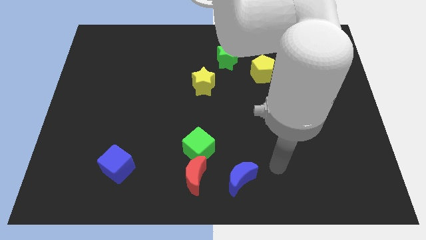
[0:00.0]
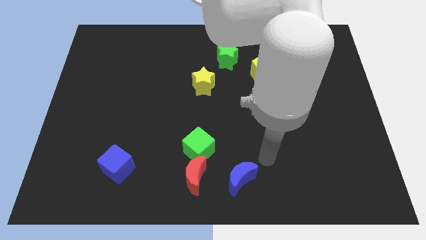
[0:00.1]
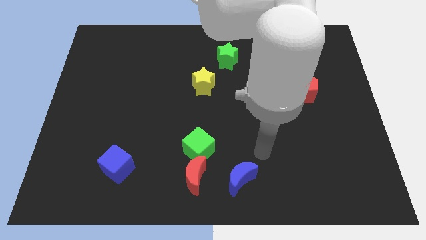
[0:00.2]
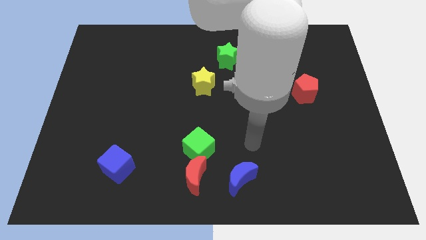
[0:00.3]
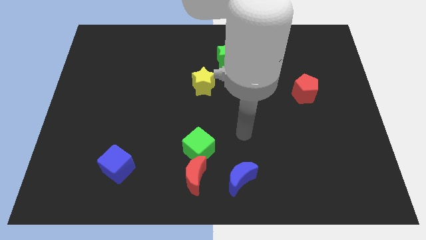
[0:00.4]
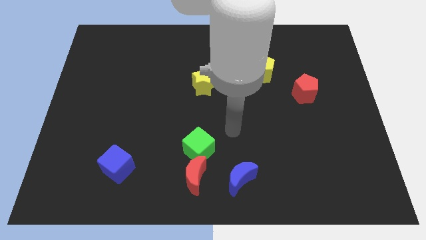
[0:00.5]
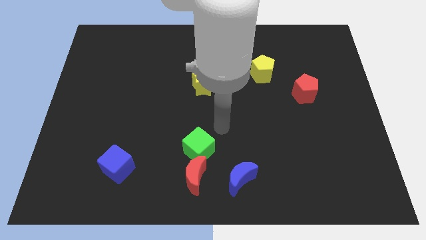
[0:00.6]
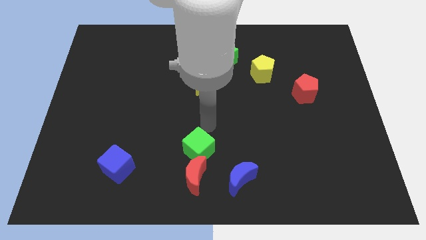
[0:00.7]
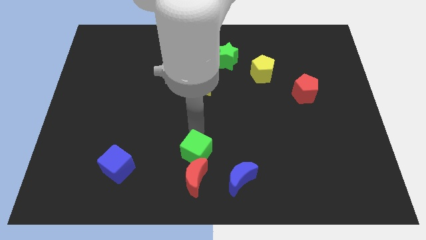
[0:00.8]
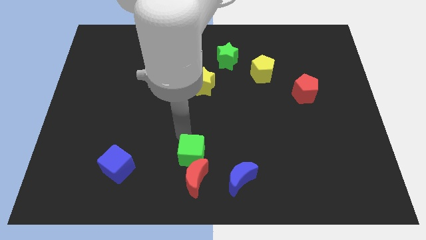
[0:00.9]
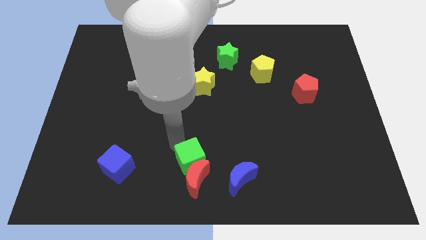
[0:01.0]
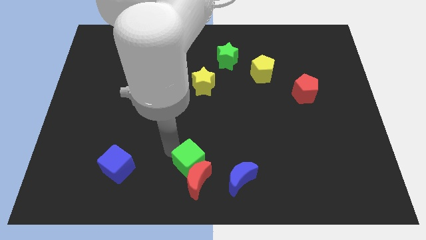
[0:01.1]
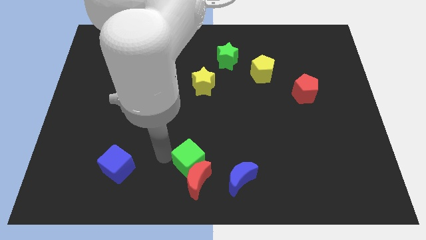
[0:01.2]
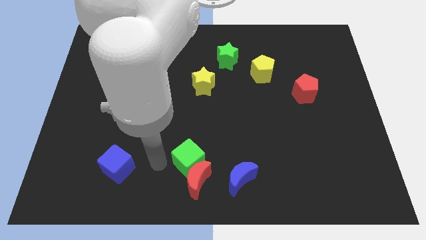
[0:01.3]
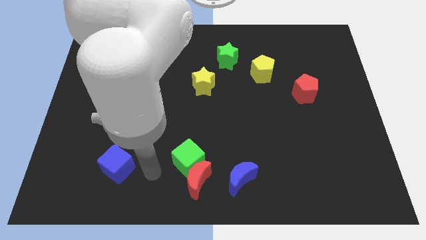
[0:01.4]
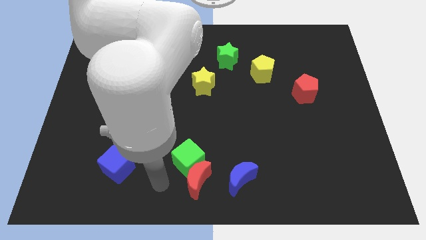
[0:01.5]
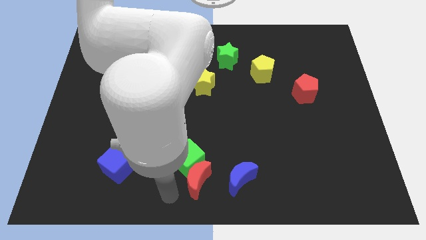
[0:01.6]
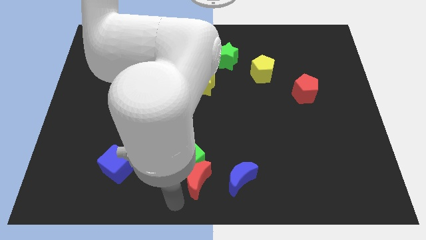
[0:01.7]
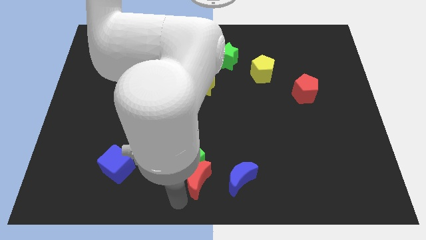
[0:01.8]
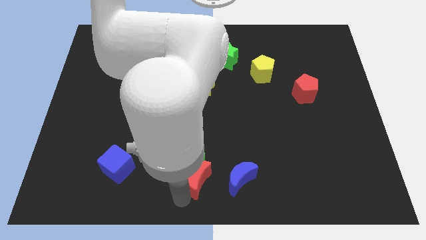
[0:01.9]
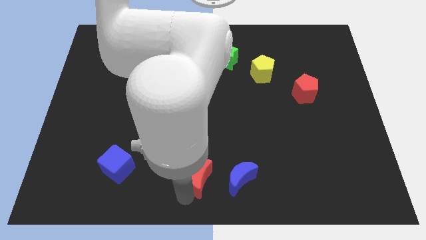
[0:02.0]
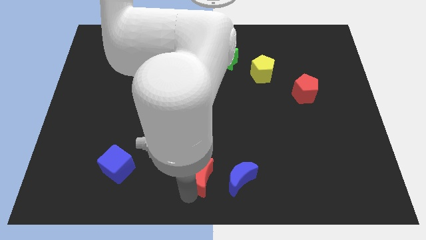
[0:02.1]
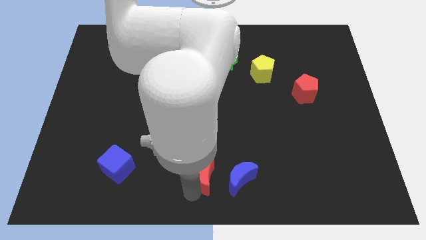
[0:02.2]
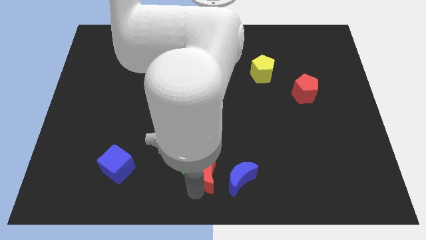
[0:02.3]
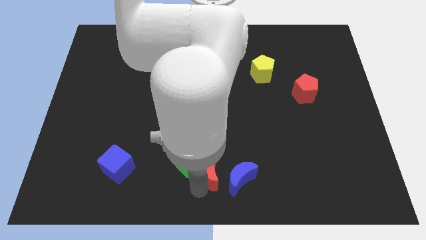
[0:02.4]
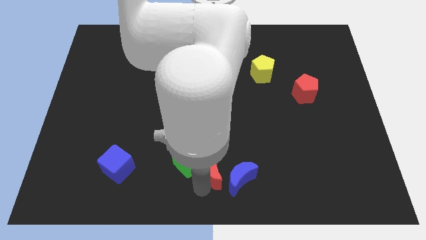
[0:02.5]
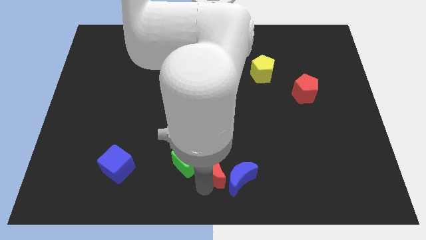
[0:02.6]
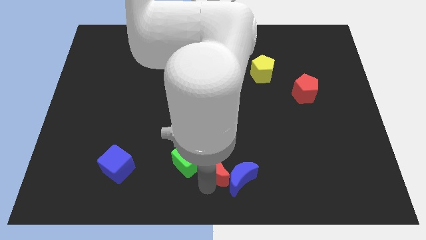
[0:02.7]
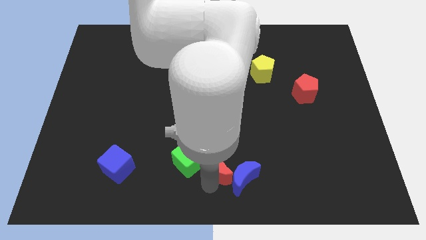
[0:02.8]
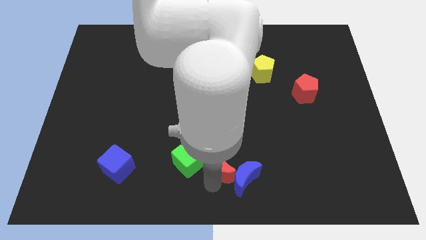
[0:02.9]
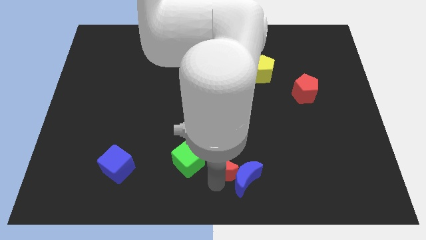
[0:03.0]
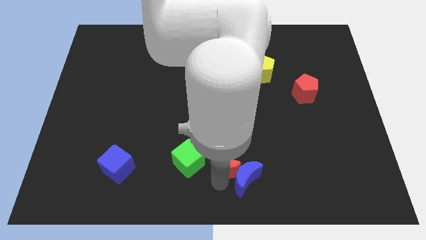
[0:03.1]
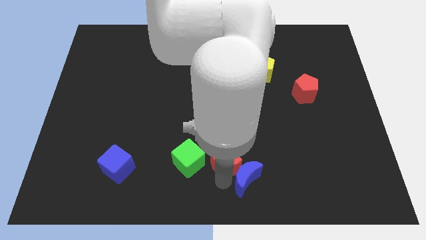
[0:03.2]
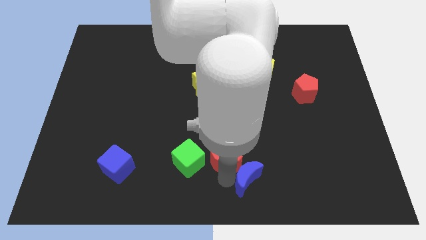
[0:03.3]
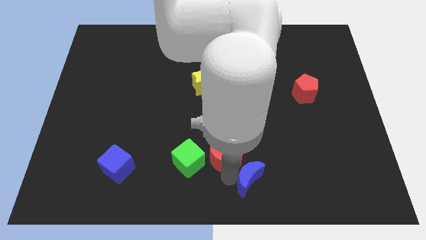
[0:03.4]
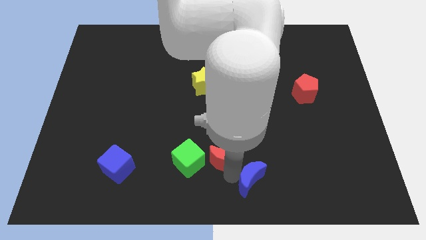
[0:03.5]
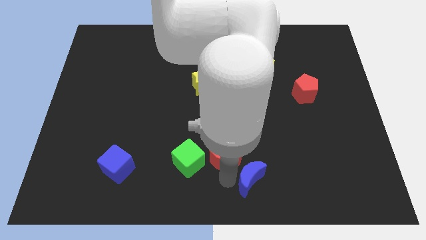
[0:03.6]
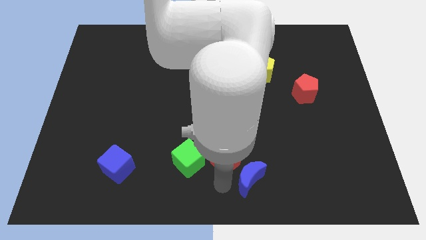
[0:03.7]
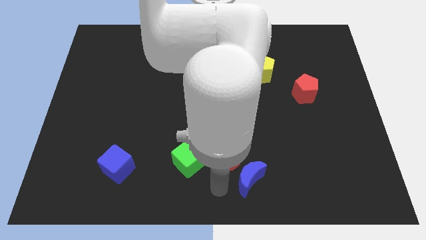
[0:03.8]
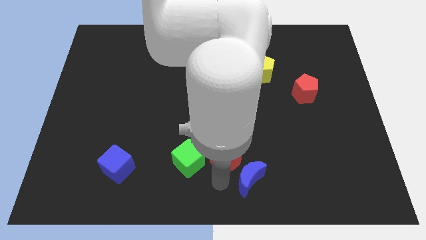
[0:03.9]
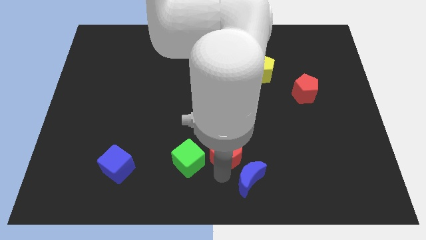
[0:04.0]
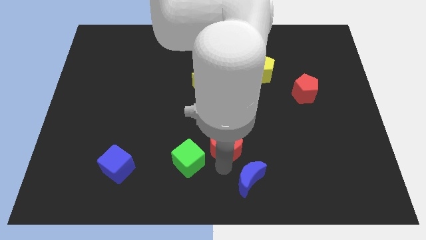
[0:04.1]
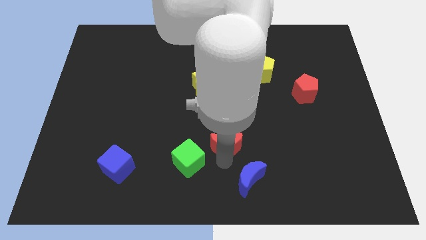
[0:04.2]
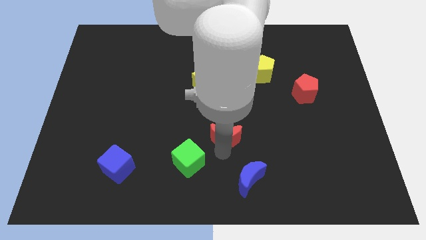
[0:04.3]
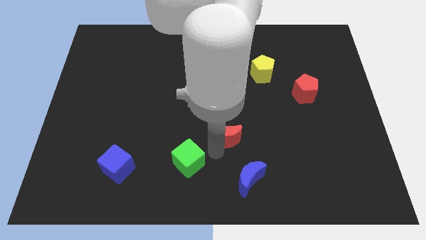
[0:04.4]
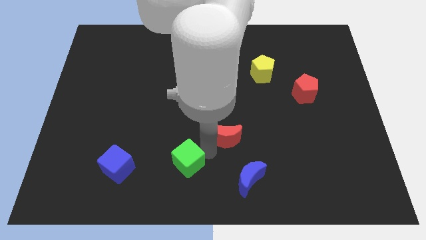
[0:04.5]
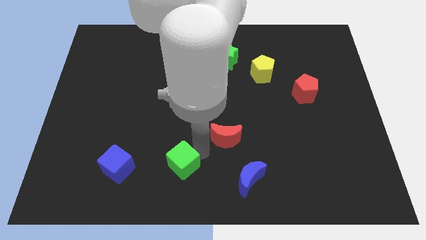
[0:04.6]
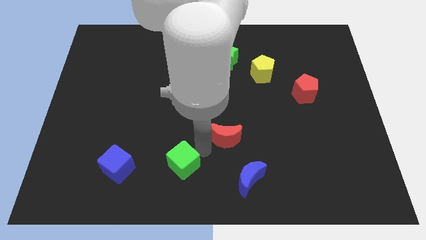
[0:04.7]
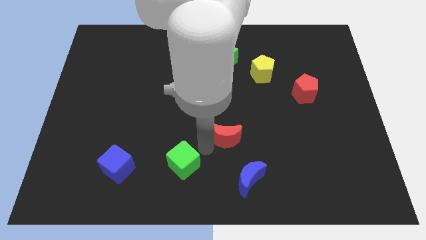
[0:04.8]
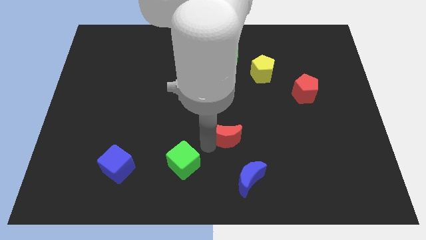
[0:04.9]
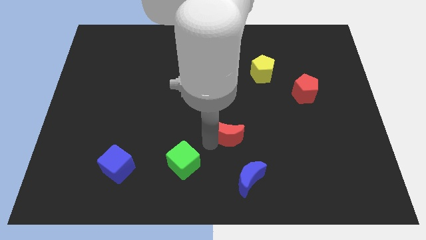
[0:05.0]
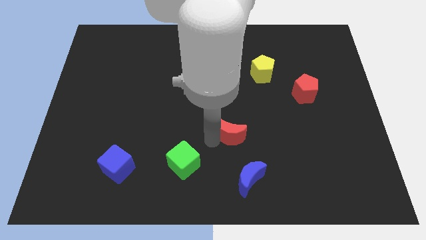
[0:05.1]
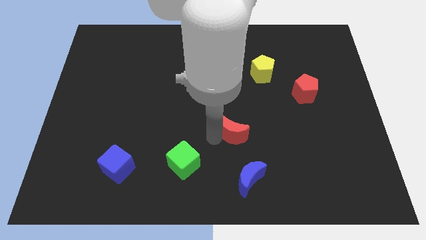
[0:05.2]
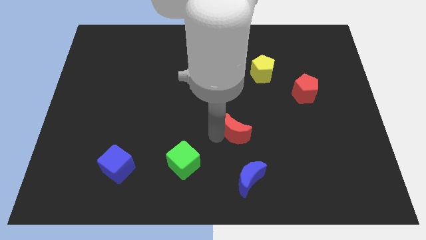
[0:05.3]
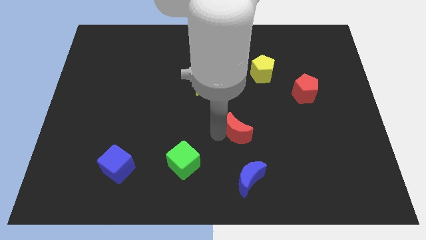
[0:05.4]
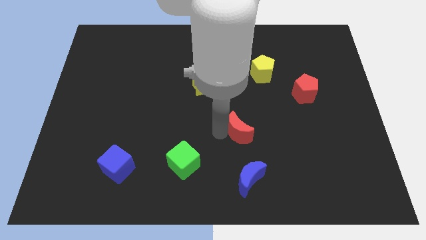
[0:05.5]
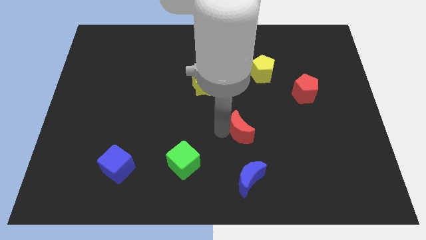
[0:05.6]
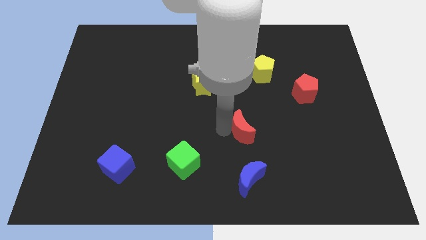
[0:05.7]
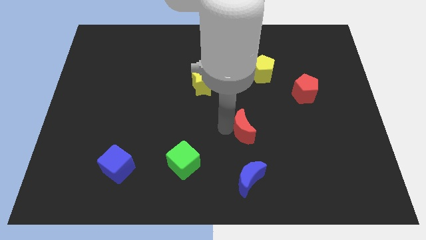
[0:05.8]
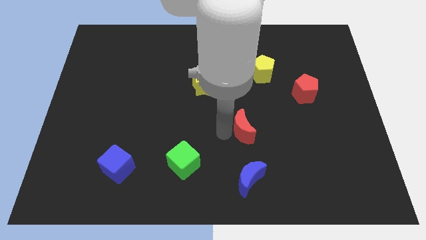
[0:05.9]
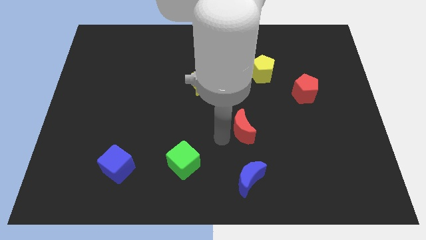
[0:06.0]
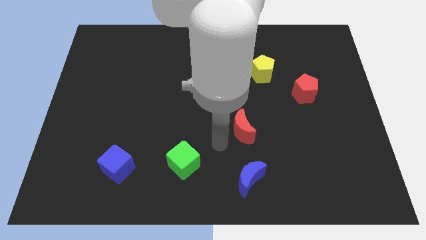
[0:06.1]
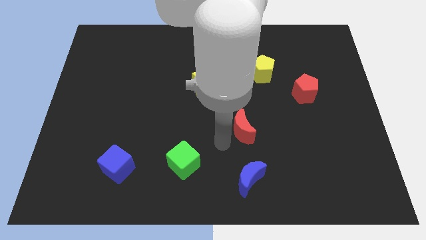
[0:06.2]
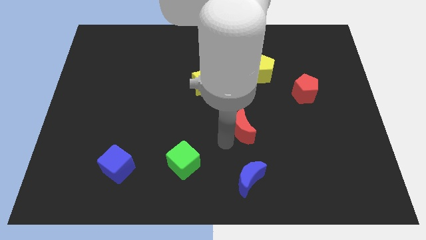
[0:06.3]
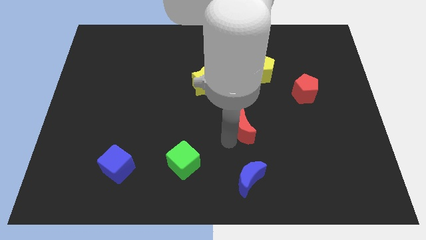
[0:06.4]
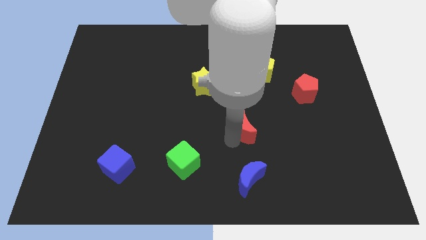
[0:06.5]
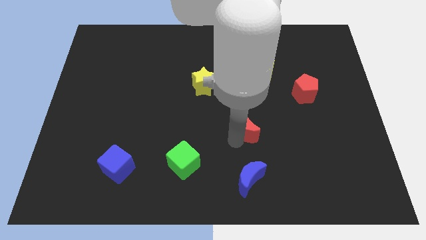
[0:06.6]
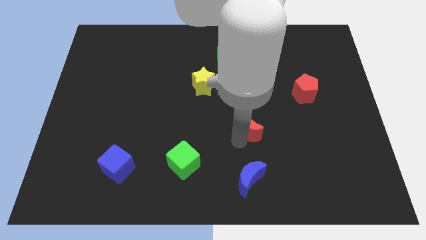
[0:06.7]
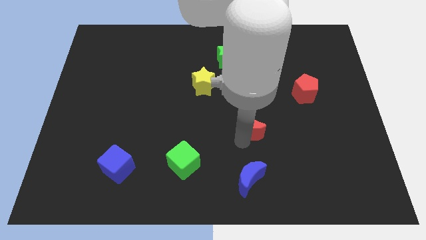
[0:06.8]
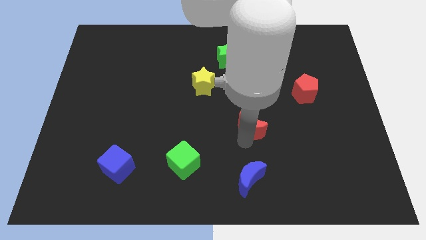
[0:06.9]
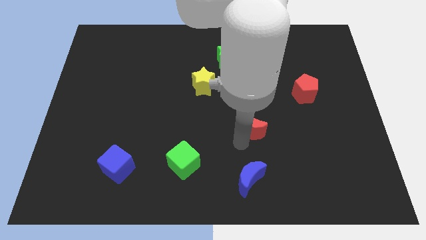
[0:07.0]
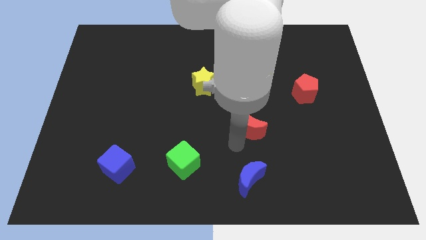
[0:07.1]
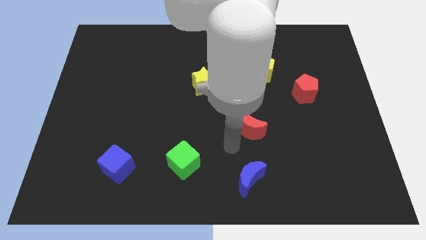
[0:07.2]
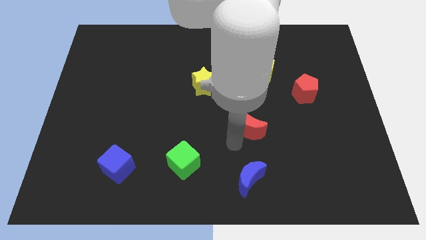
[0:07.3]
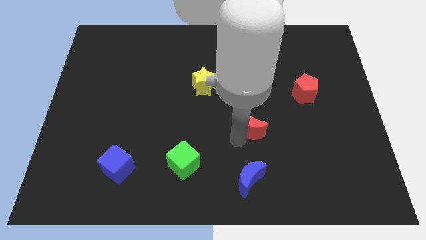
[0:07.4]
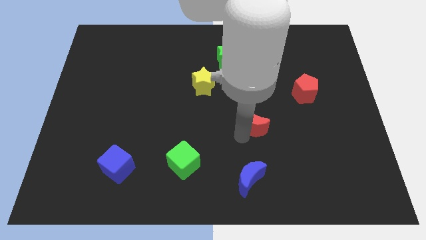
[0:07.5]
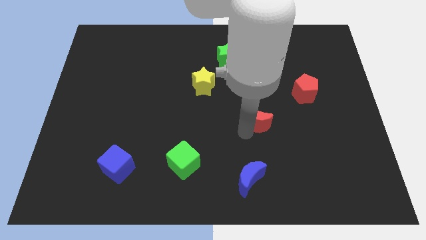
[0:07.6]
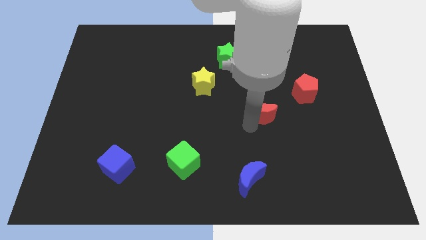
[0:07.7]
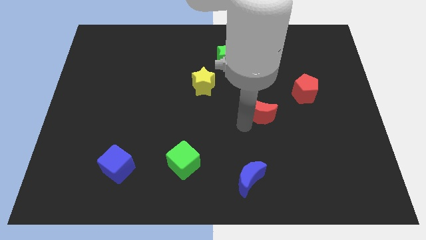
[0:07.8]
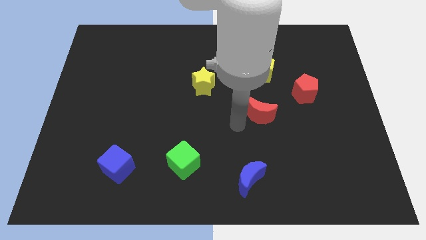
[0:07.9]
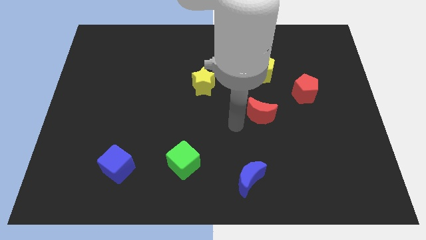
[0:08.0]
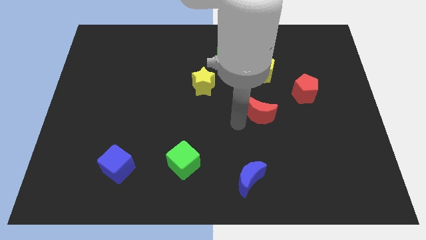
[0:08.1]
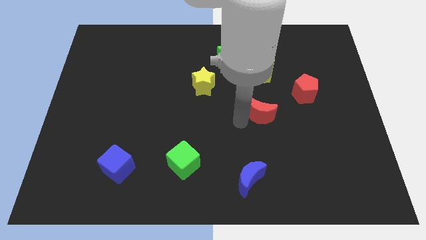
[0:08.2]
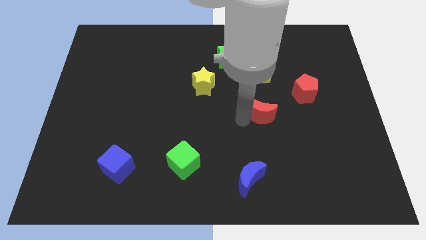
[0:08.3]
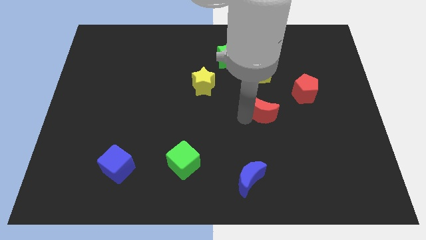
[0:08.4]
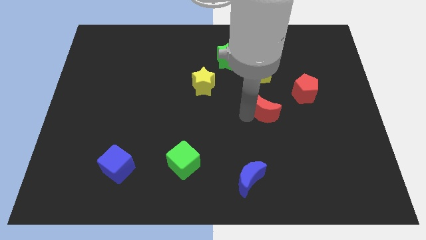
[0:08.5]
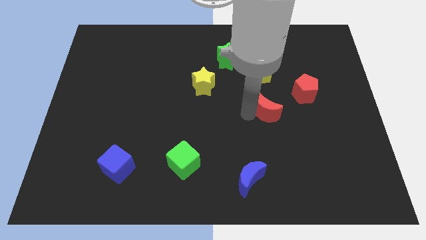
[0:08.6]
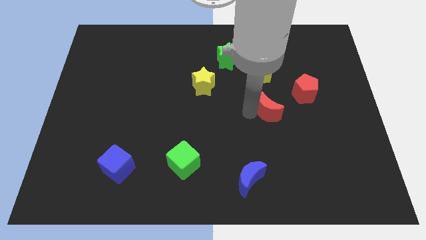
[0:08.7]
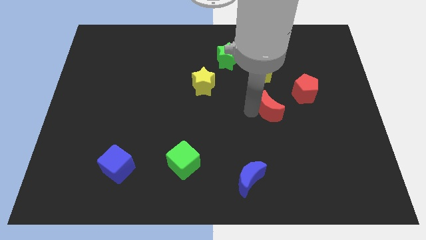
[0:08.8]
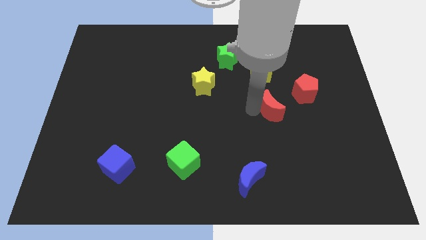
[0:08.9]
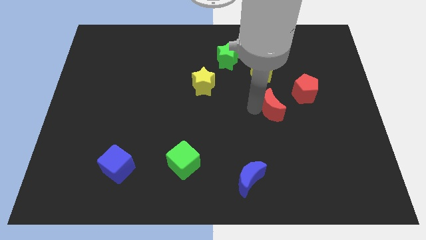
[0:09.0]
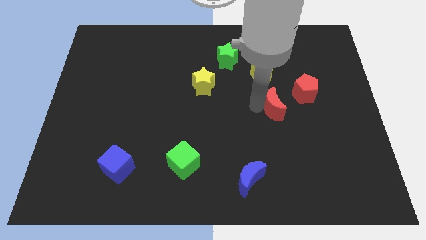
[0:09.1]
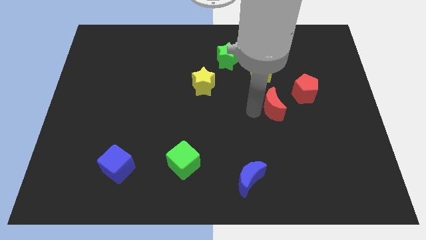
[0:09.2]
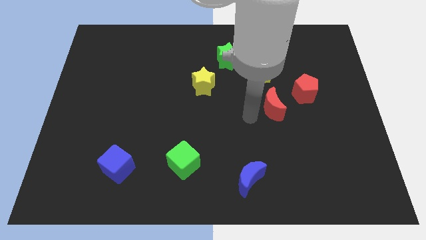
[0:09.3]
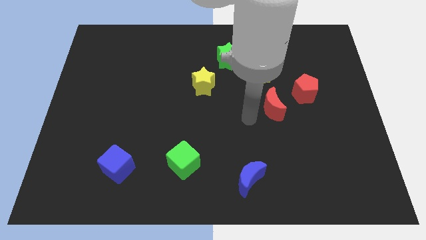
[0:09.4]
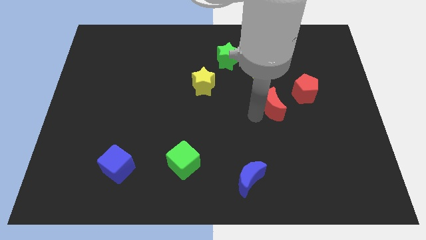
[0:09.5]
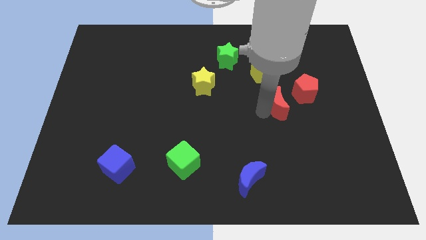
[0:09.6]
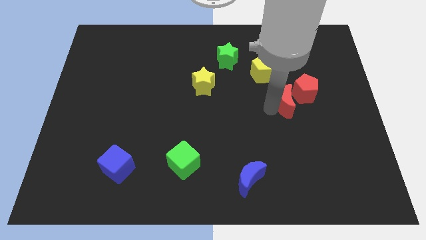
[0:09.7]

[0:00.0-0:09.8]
move the red moon close to the red pentagon
